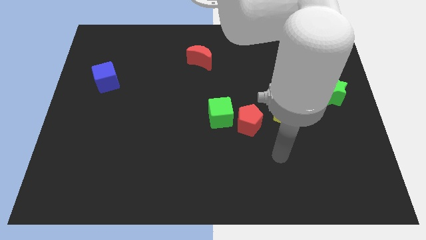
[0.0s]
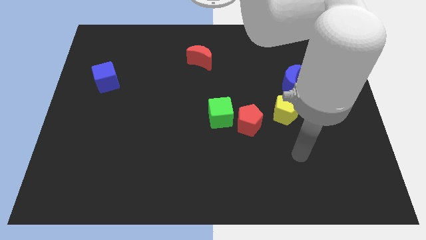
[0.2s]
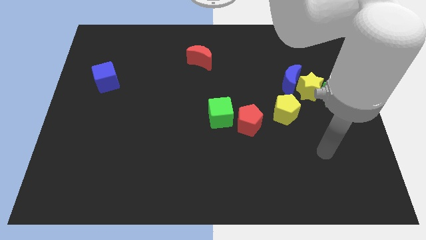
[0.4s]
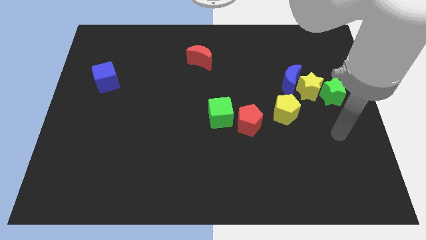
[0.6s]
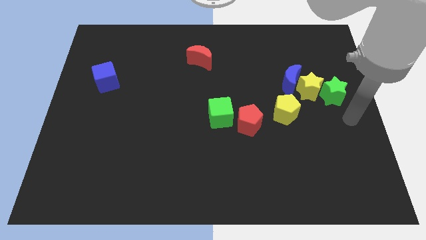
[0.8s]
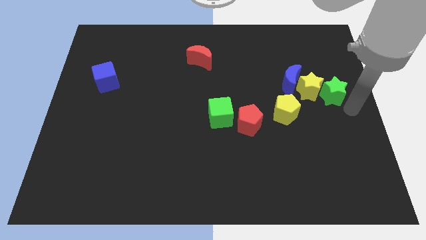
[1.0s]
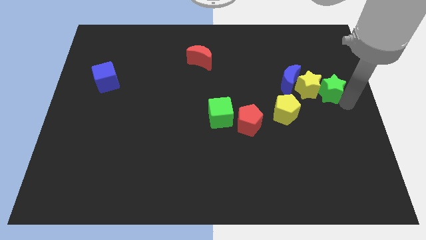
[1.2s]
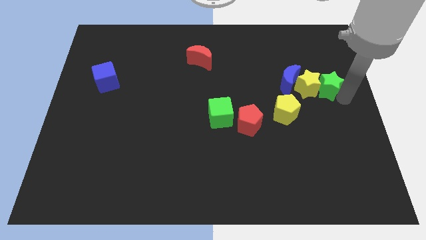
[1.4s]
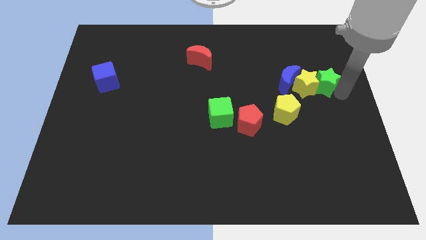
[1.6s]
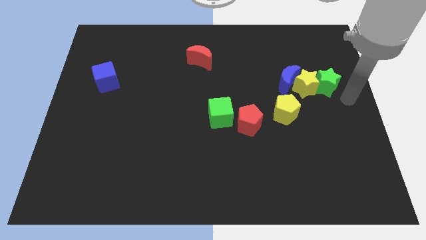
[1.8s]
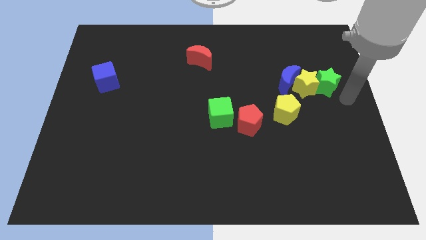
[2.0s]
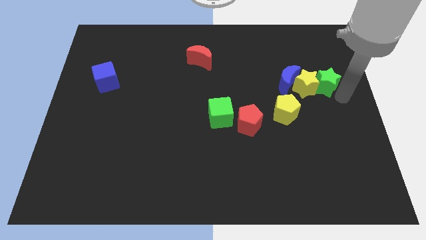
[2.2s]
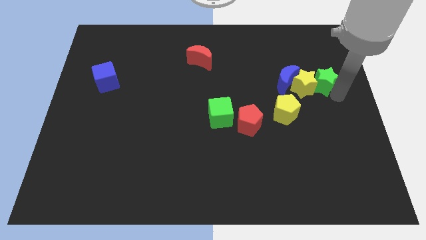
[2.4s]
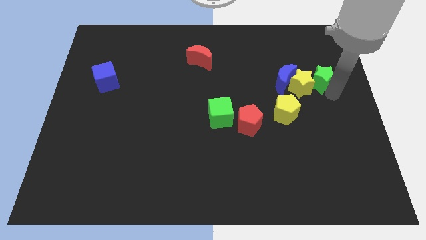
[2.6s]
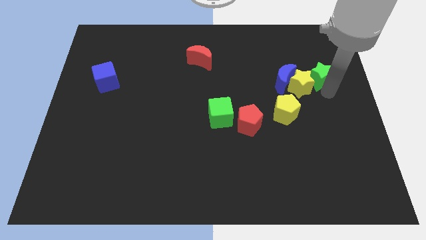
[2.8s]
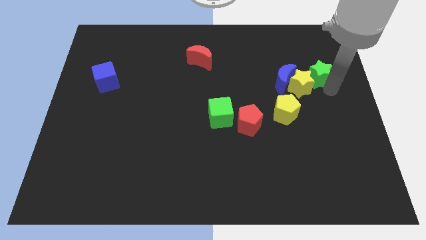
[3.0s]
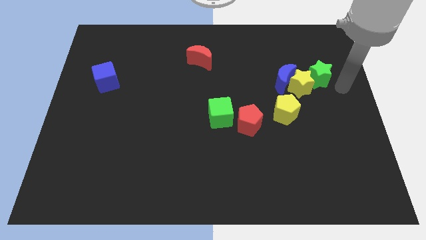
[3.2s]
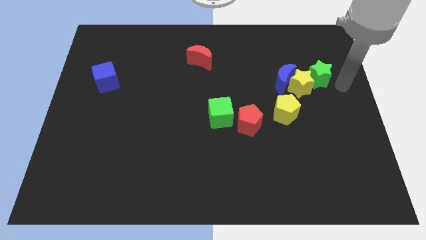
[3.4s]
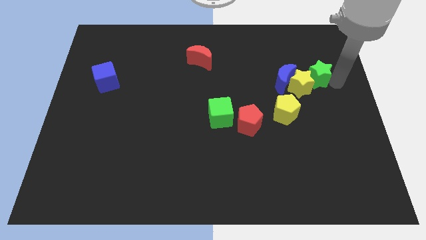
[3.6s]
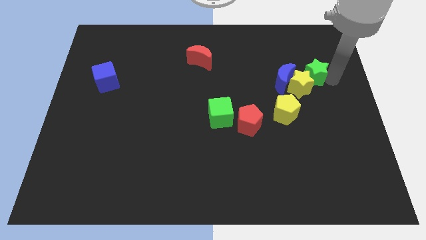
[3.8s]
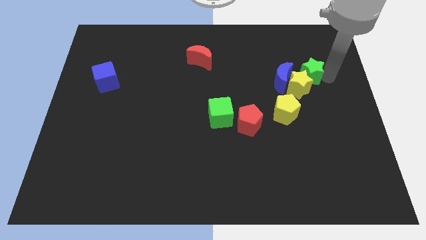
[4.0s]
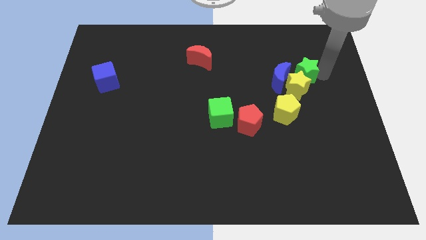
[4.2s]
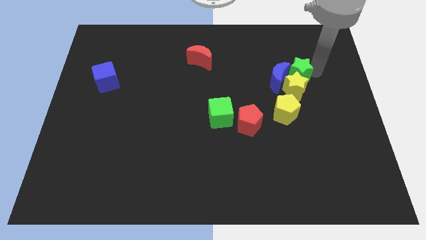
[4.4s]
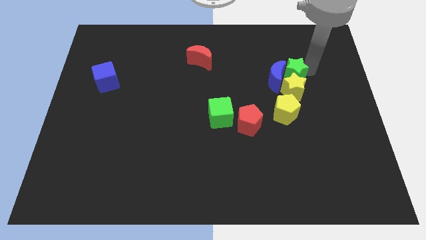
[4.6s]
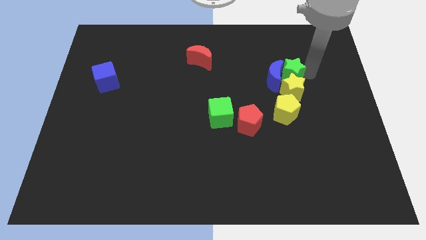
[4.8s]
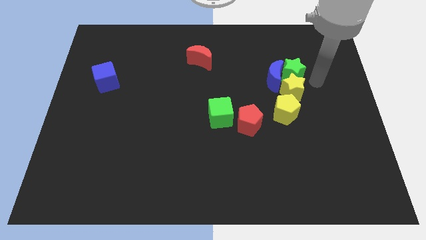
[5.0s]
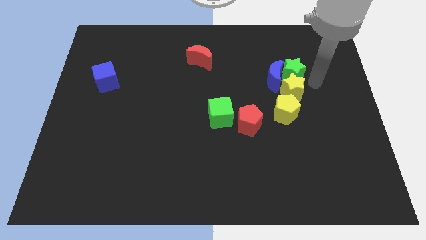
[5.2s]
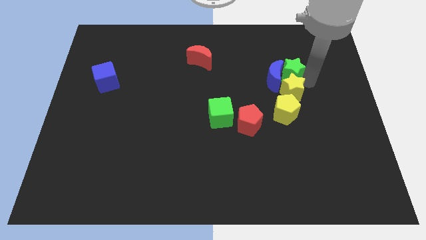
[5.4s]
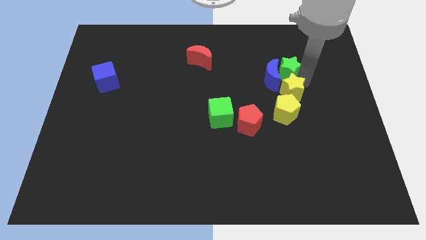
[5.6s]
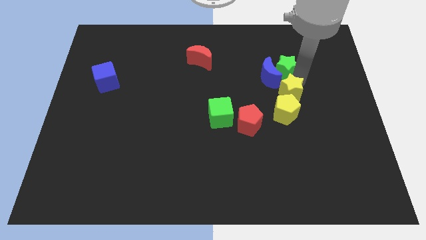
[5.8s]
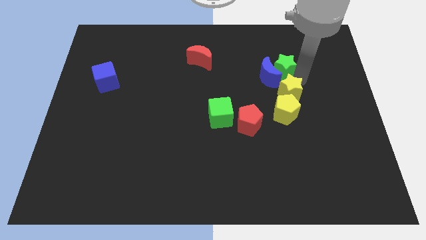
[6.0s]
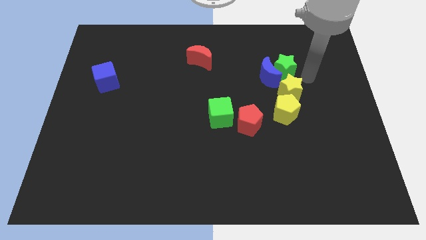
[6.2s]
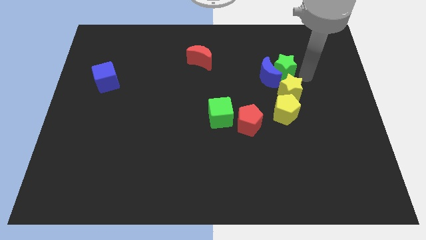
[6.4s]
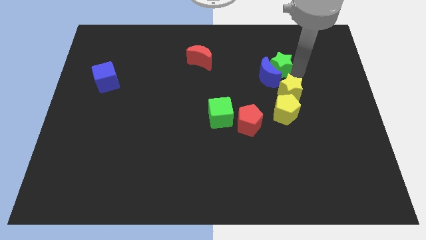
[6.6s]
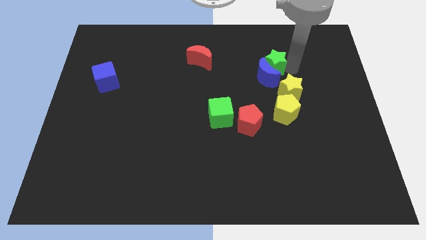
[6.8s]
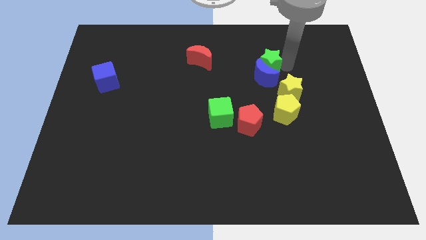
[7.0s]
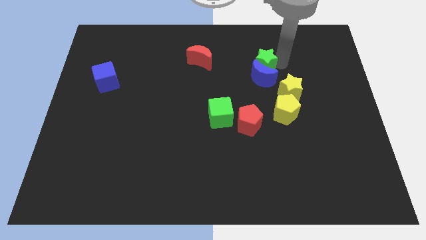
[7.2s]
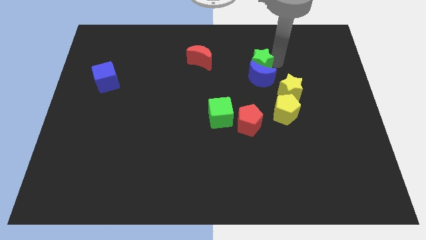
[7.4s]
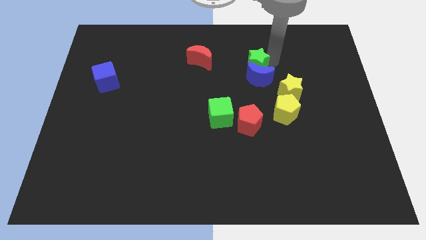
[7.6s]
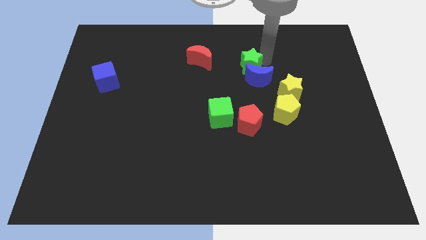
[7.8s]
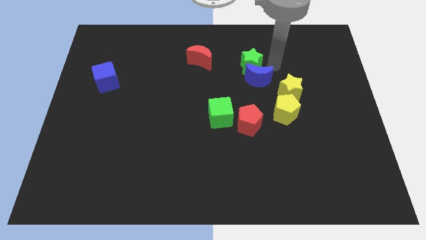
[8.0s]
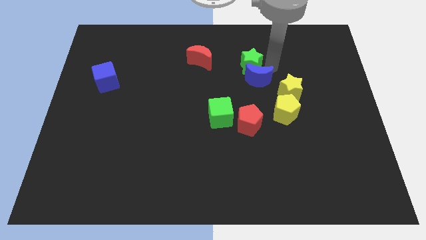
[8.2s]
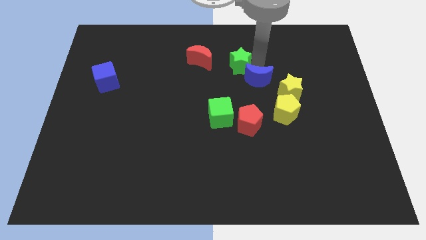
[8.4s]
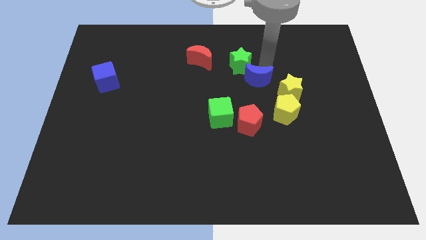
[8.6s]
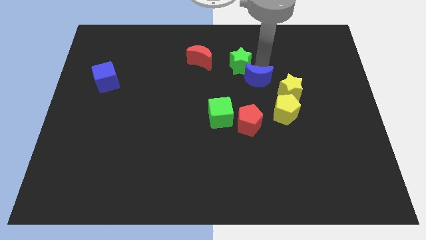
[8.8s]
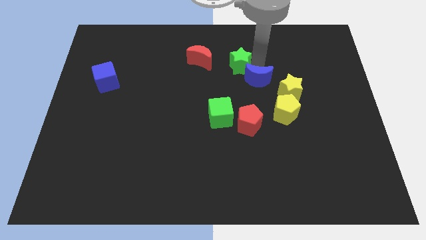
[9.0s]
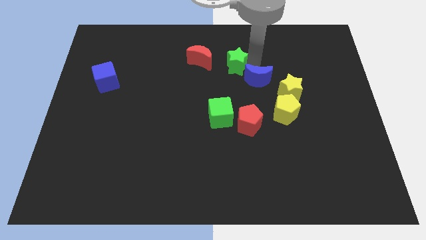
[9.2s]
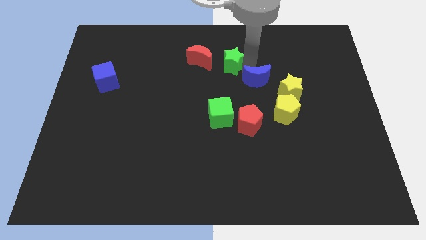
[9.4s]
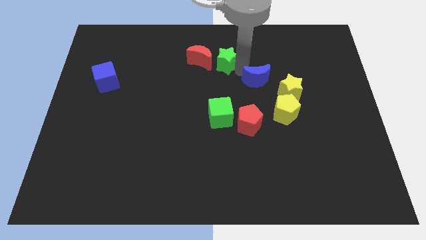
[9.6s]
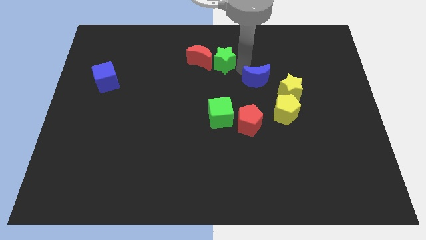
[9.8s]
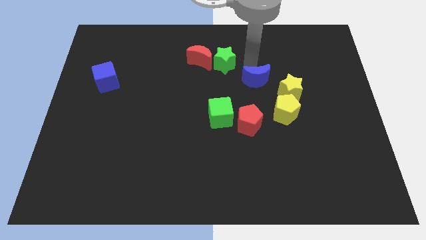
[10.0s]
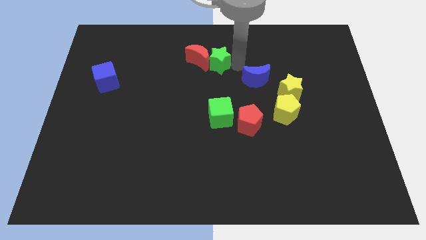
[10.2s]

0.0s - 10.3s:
move the green star towards the red moon

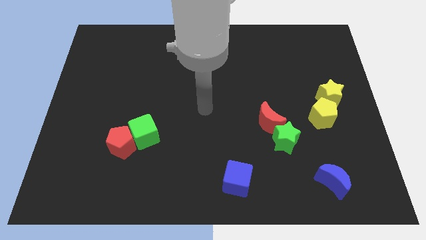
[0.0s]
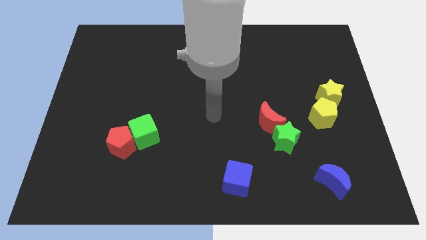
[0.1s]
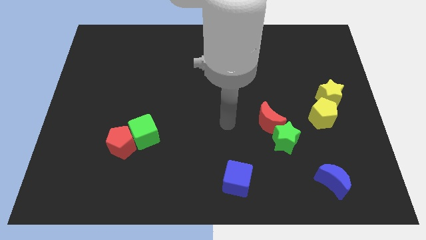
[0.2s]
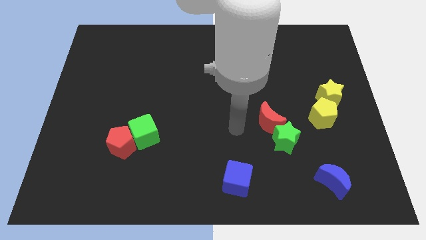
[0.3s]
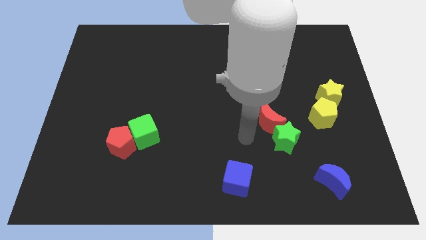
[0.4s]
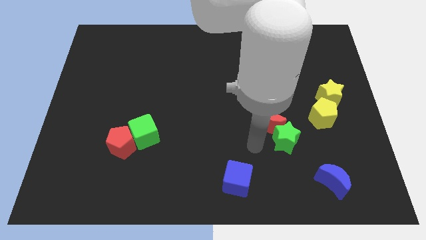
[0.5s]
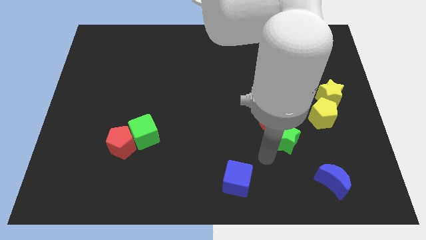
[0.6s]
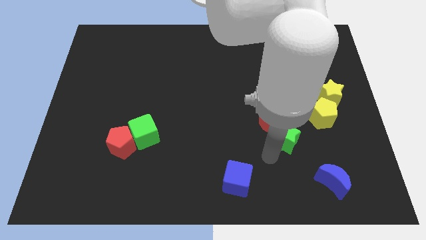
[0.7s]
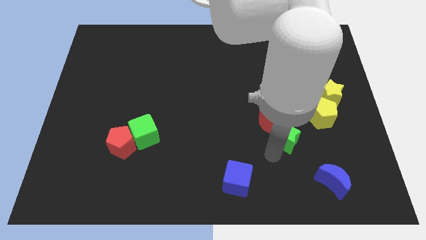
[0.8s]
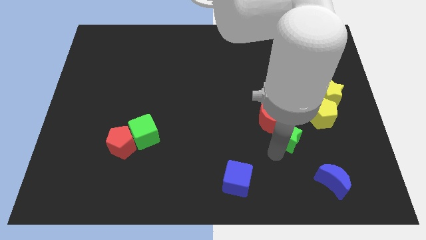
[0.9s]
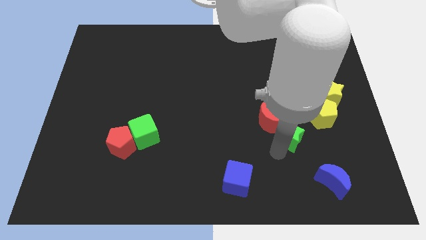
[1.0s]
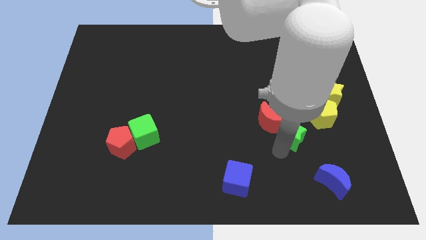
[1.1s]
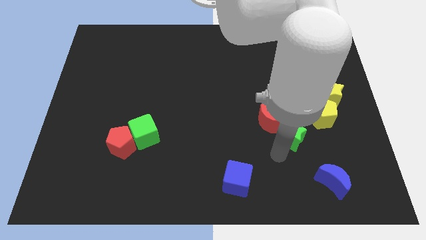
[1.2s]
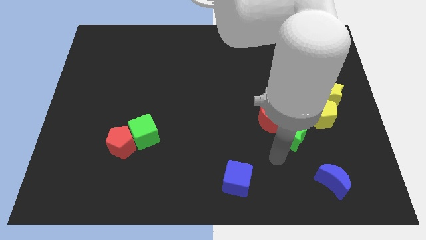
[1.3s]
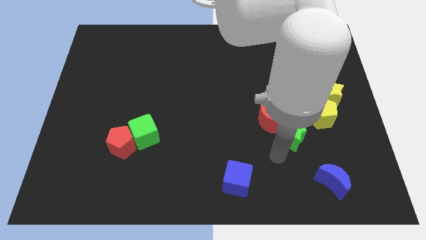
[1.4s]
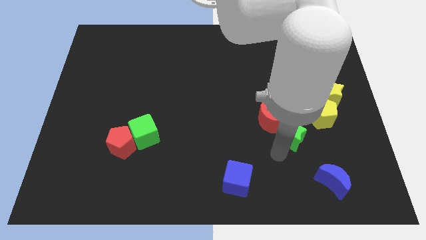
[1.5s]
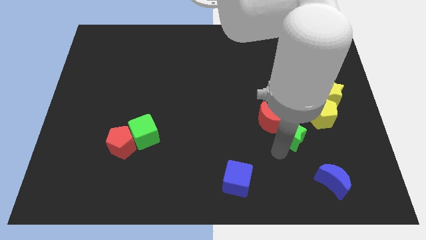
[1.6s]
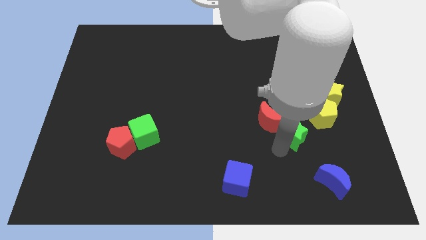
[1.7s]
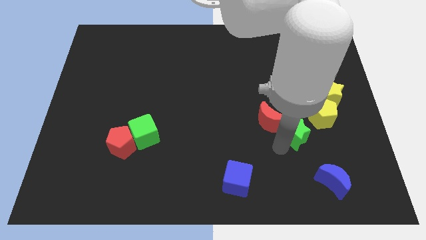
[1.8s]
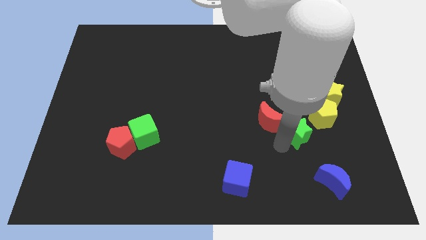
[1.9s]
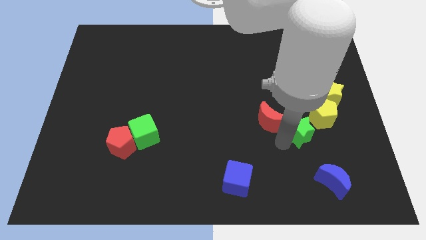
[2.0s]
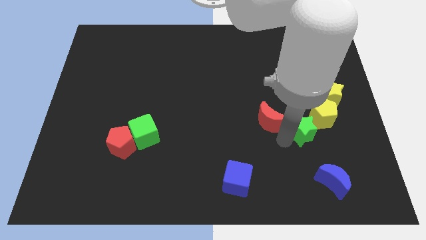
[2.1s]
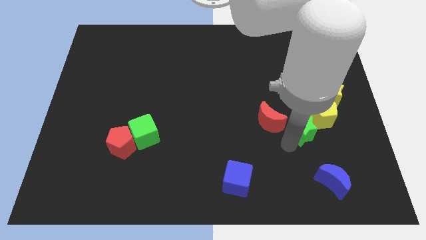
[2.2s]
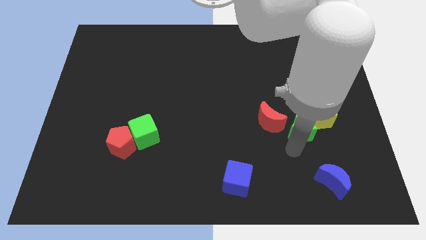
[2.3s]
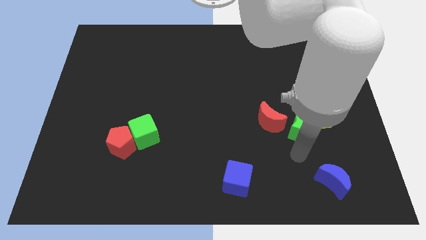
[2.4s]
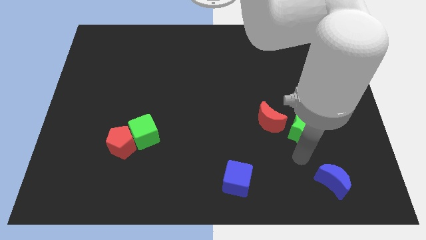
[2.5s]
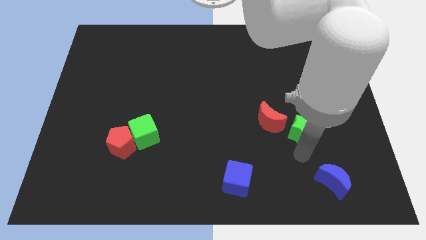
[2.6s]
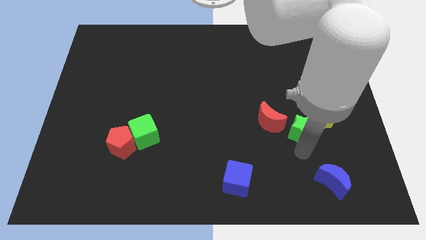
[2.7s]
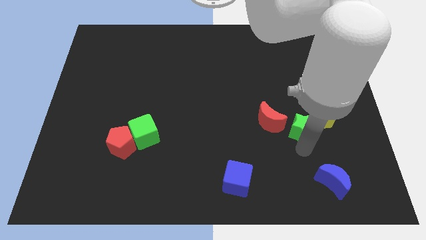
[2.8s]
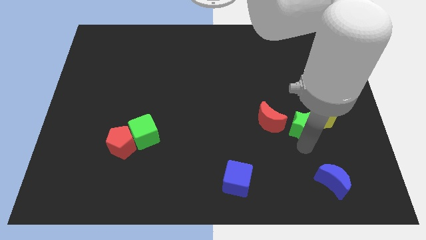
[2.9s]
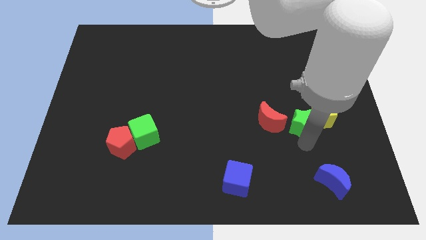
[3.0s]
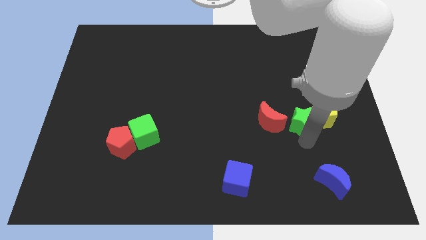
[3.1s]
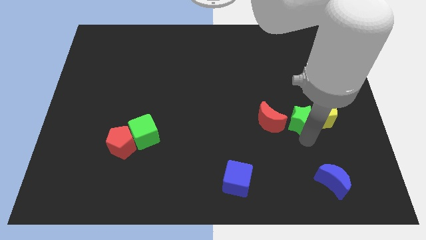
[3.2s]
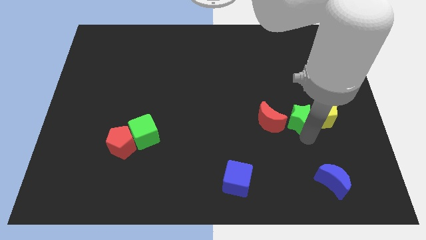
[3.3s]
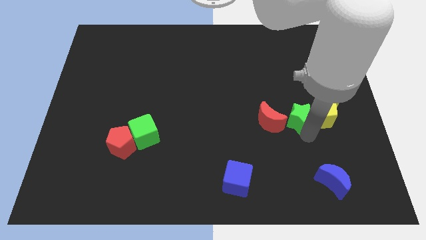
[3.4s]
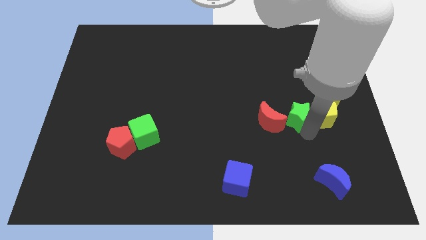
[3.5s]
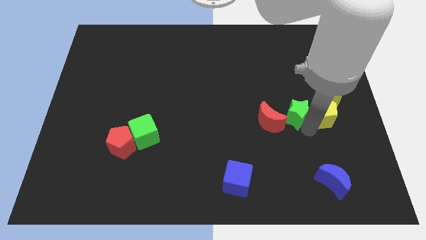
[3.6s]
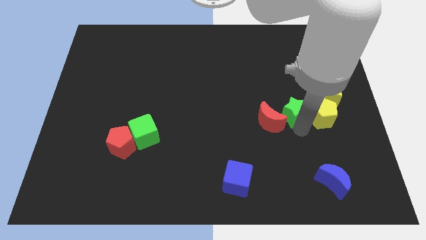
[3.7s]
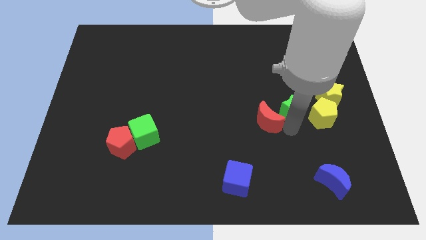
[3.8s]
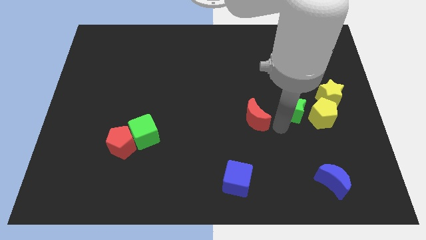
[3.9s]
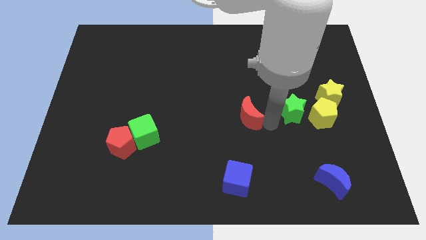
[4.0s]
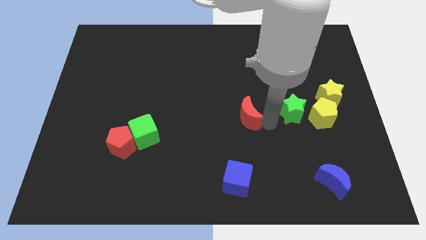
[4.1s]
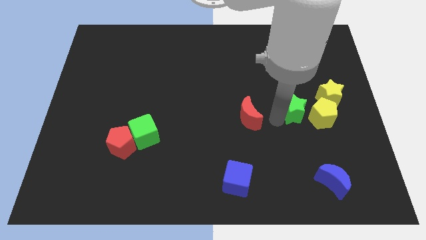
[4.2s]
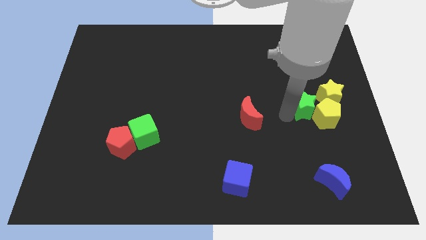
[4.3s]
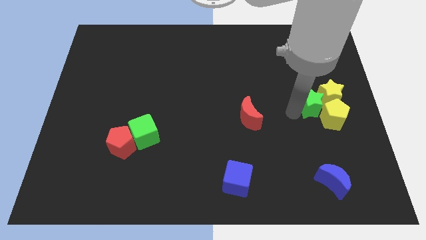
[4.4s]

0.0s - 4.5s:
push the green star towards the yellow star
